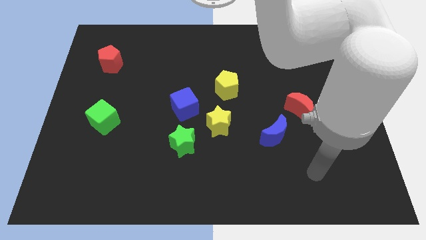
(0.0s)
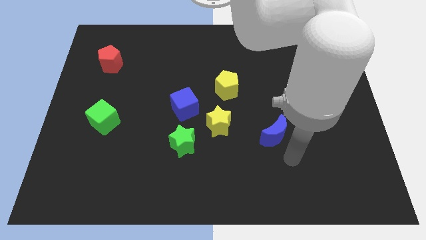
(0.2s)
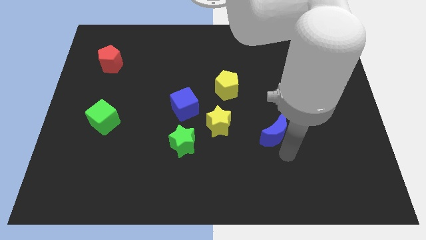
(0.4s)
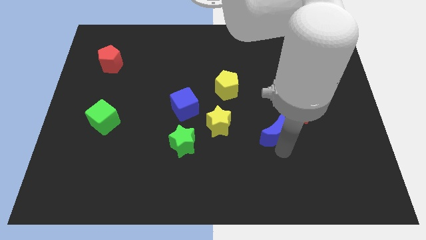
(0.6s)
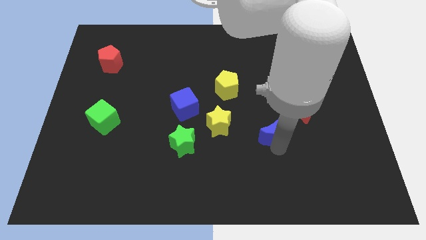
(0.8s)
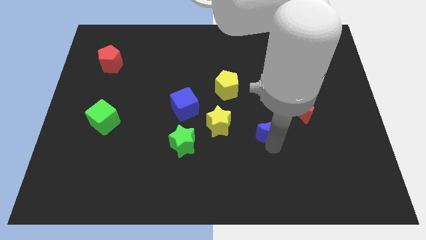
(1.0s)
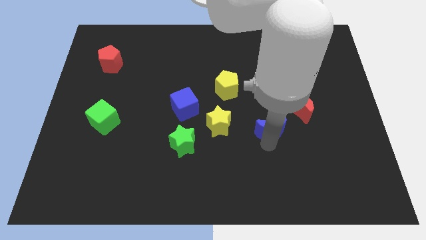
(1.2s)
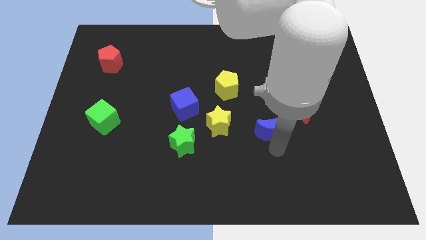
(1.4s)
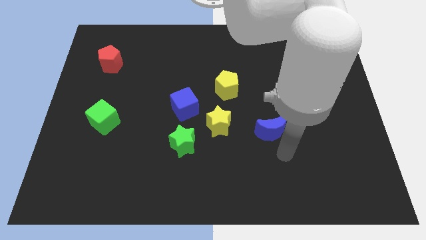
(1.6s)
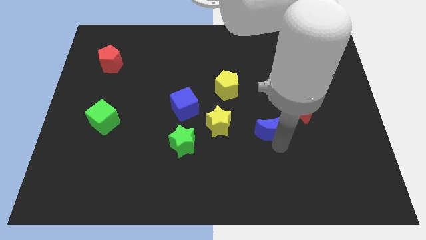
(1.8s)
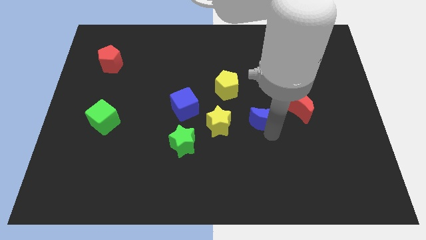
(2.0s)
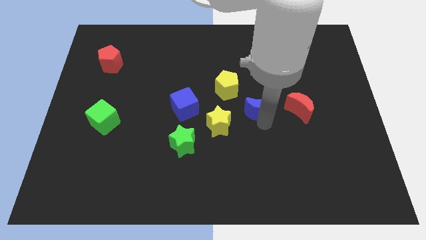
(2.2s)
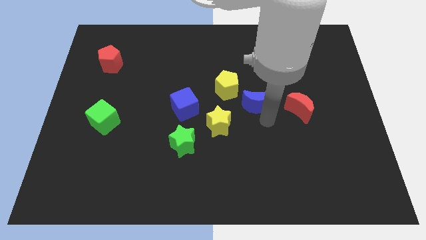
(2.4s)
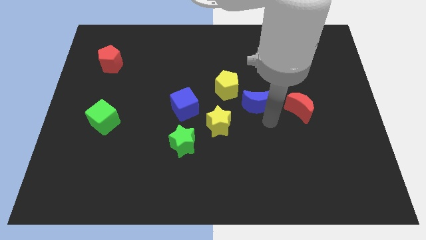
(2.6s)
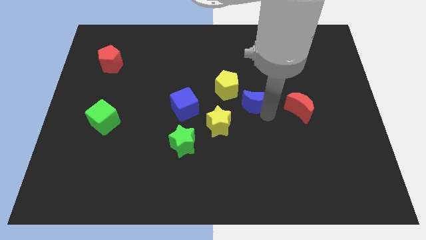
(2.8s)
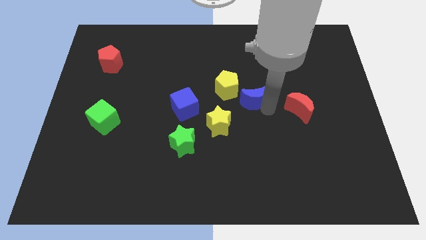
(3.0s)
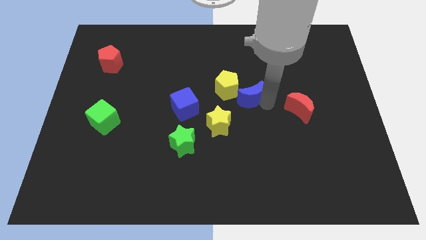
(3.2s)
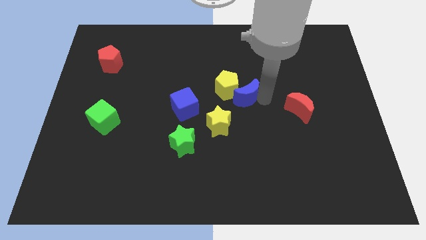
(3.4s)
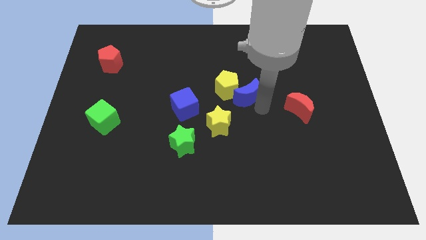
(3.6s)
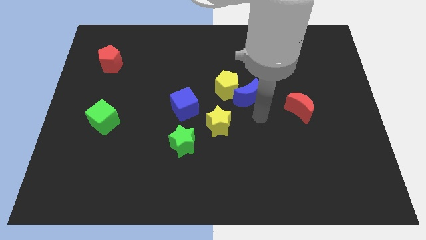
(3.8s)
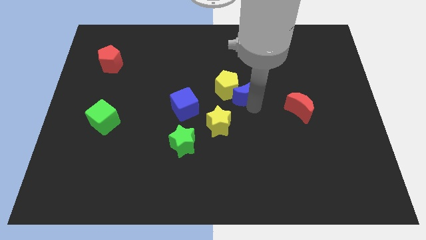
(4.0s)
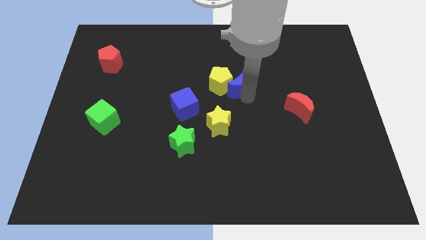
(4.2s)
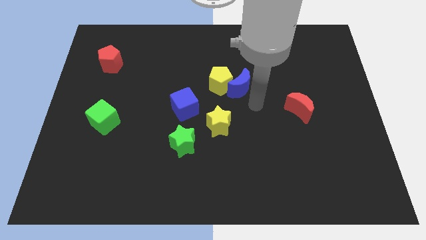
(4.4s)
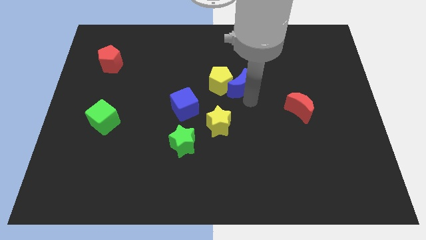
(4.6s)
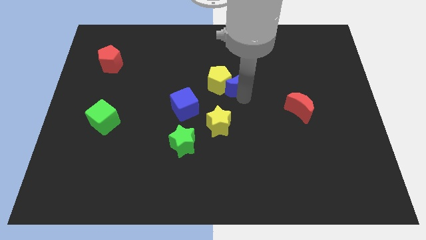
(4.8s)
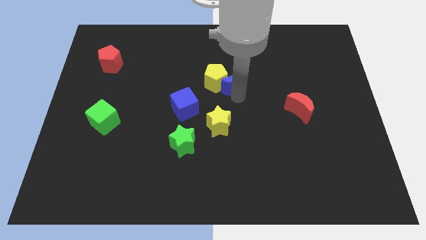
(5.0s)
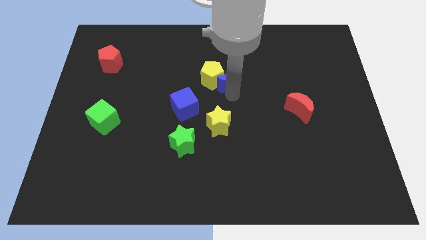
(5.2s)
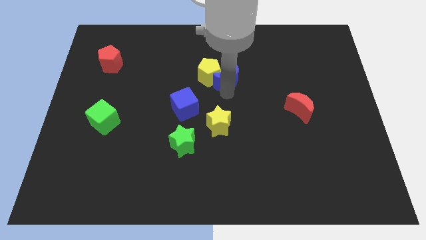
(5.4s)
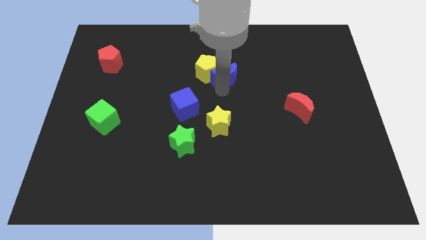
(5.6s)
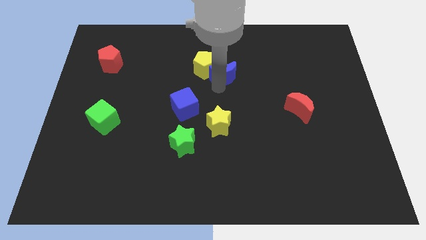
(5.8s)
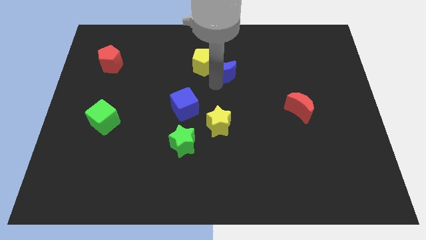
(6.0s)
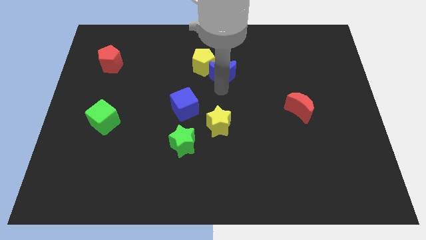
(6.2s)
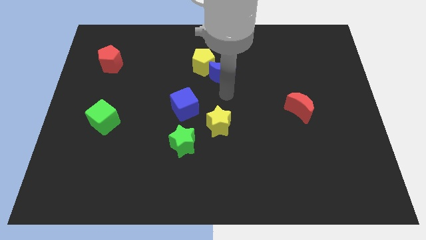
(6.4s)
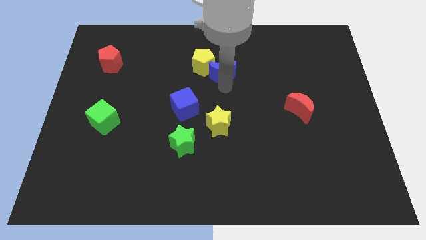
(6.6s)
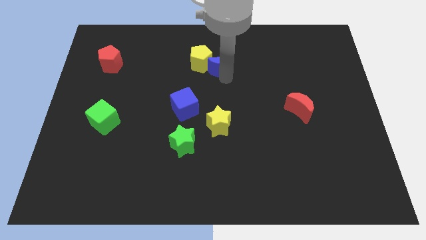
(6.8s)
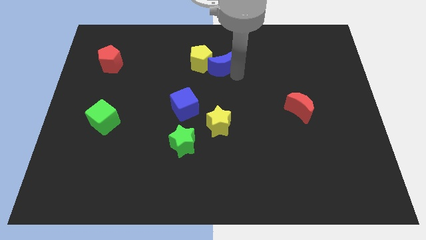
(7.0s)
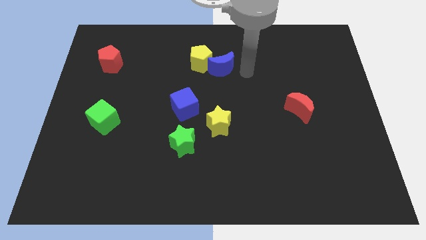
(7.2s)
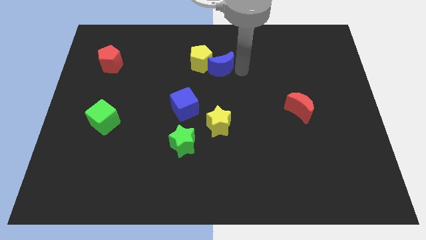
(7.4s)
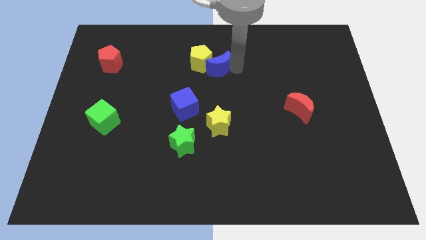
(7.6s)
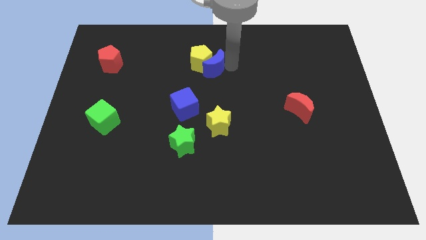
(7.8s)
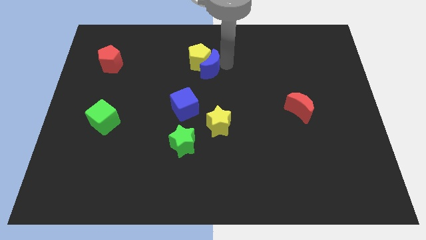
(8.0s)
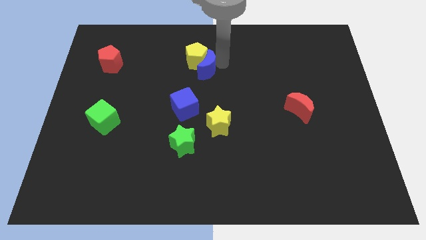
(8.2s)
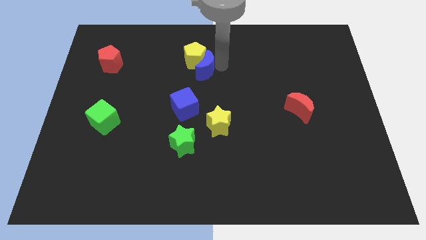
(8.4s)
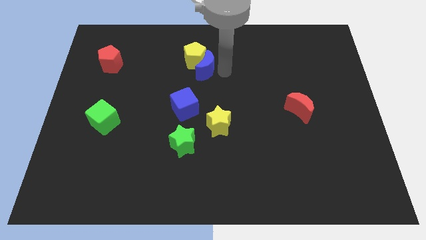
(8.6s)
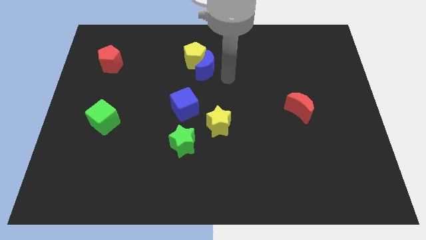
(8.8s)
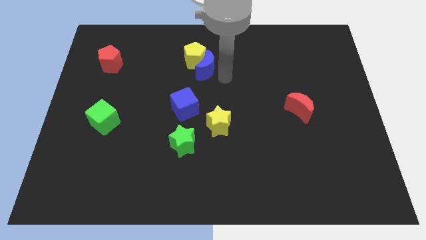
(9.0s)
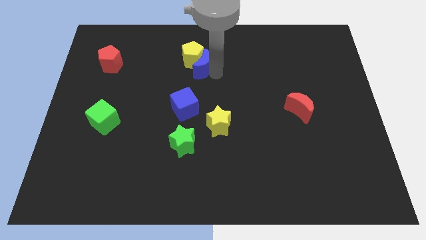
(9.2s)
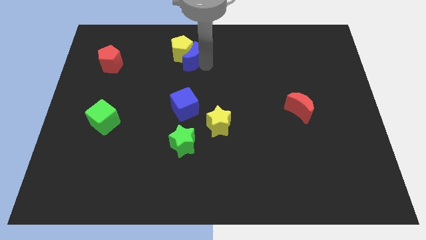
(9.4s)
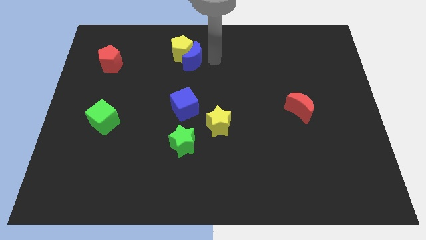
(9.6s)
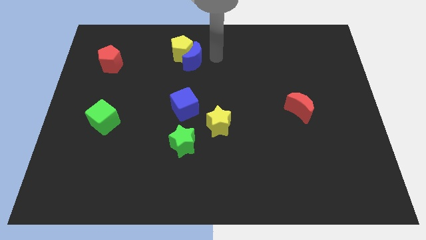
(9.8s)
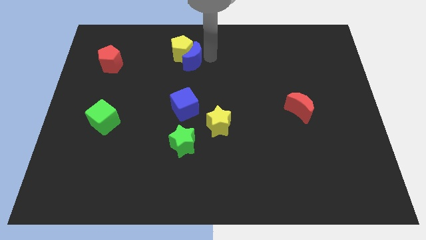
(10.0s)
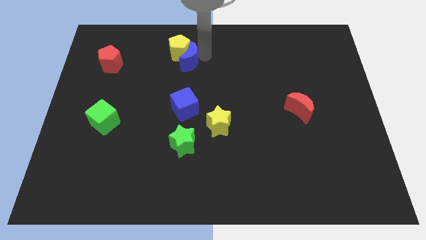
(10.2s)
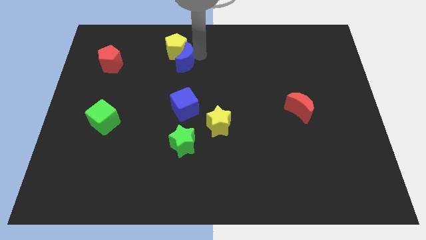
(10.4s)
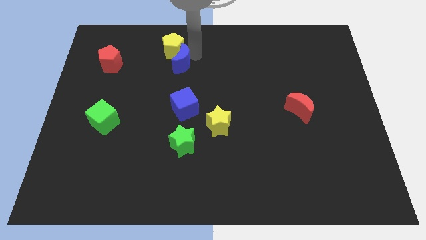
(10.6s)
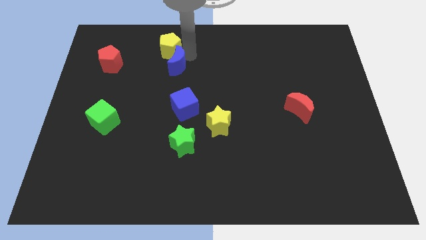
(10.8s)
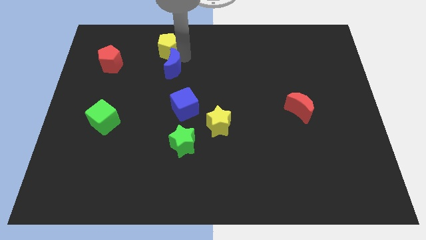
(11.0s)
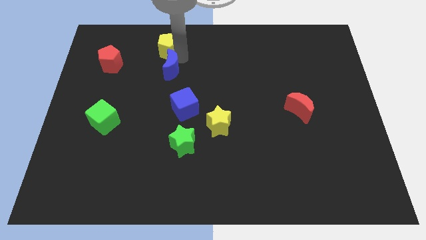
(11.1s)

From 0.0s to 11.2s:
put the blue moon to the right of the red pentagon
